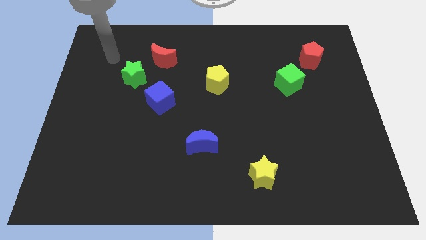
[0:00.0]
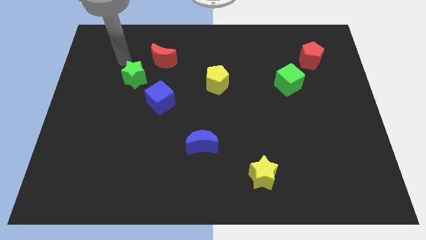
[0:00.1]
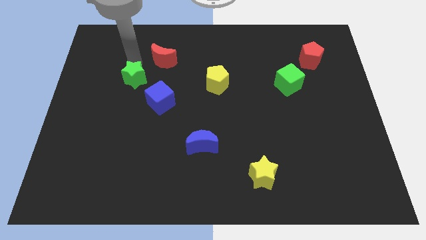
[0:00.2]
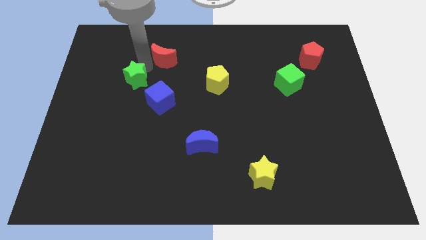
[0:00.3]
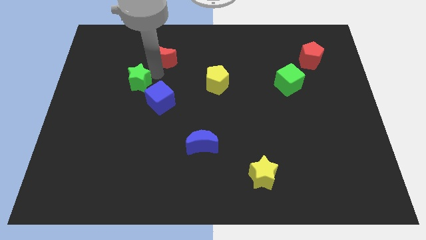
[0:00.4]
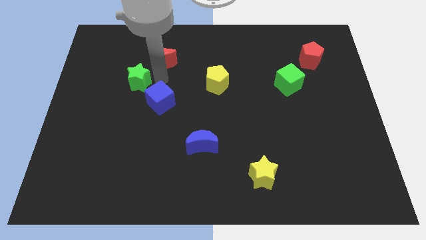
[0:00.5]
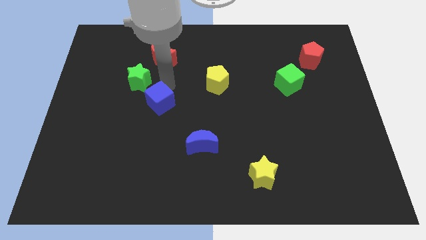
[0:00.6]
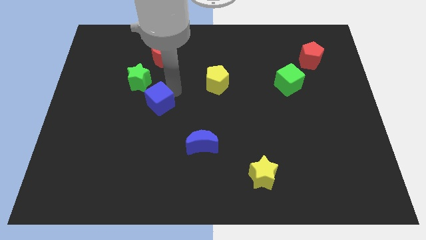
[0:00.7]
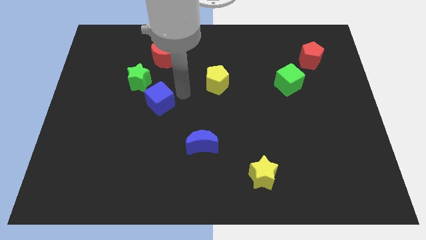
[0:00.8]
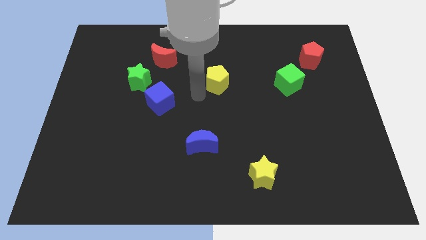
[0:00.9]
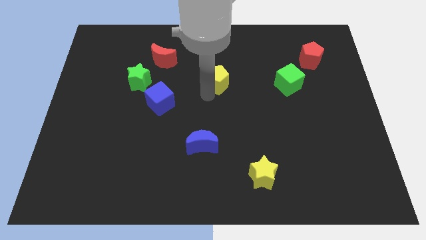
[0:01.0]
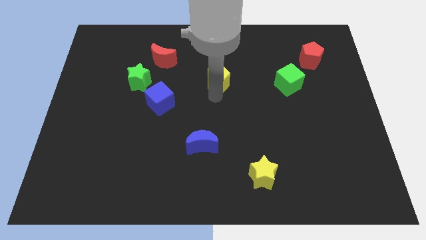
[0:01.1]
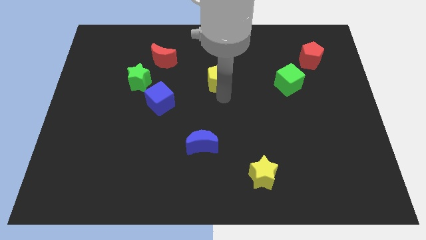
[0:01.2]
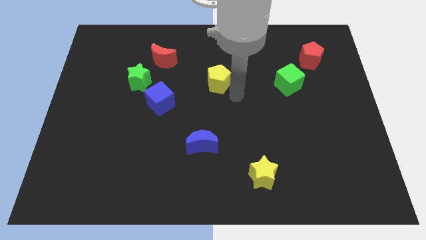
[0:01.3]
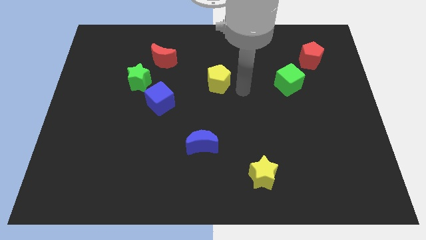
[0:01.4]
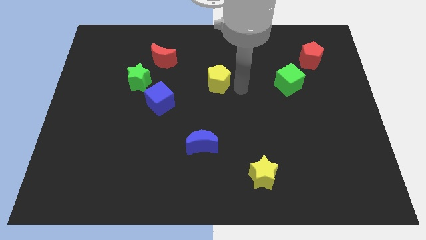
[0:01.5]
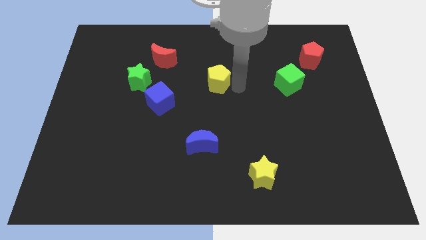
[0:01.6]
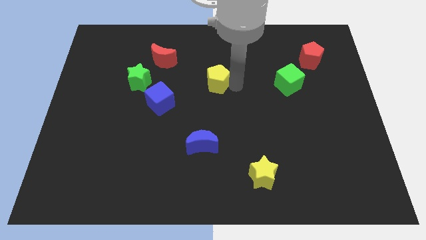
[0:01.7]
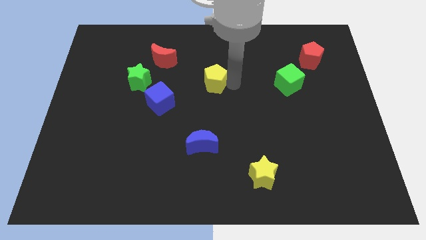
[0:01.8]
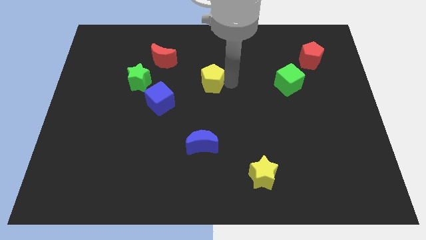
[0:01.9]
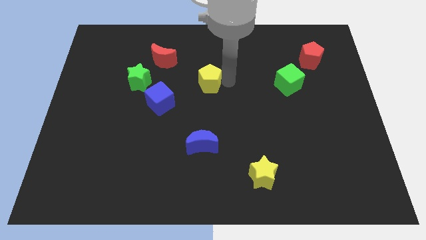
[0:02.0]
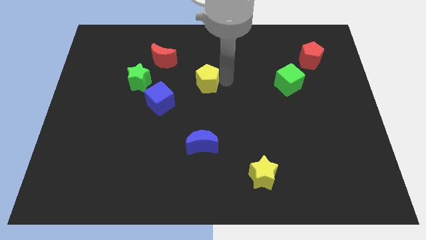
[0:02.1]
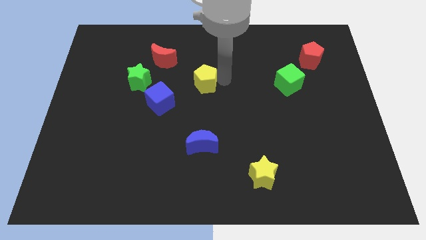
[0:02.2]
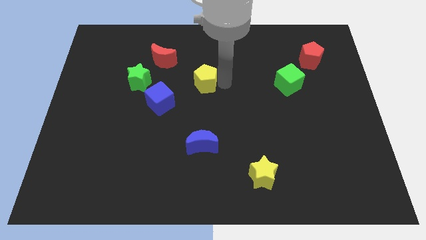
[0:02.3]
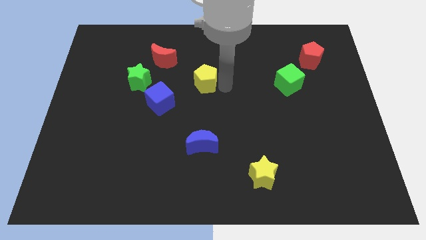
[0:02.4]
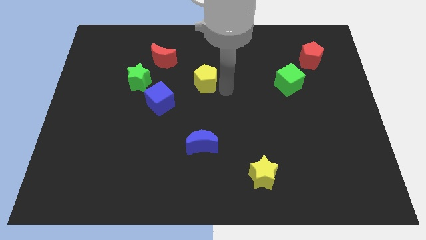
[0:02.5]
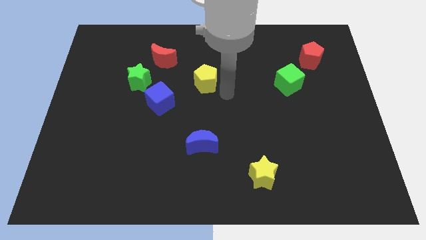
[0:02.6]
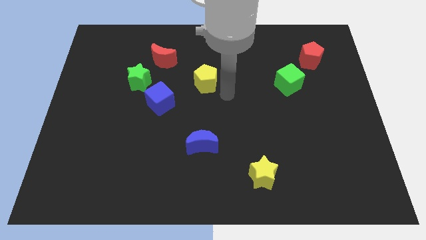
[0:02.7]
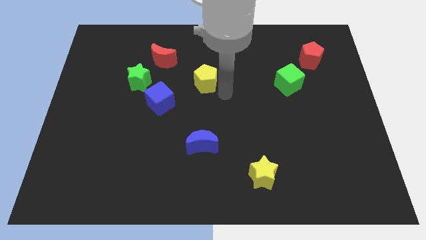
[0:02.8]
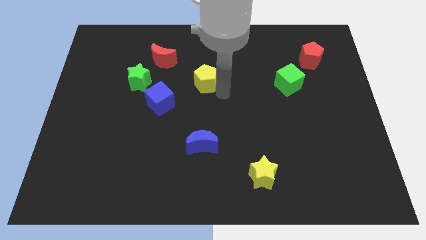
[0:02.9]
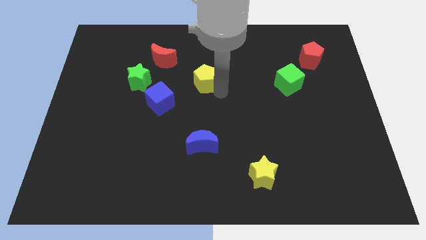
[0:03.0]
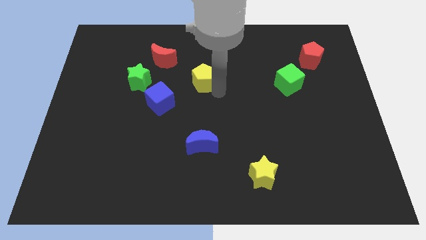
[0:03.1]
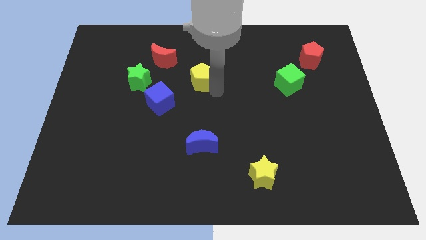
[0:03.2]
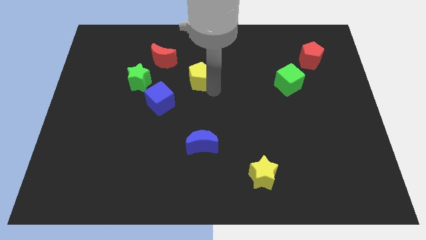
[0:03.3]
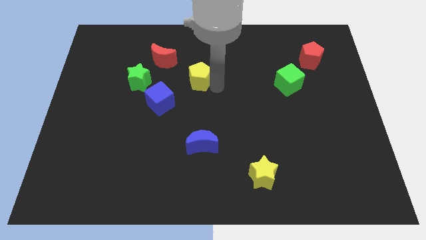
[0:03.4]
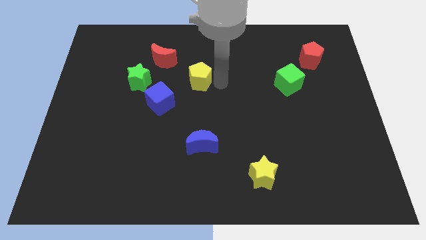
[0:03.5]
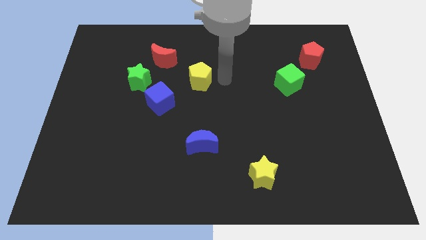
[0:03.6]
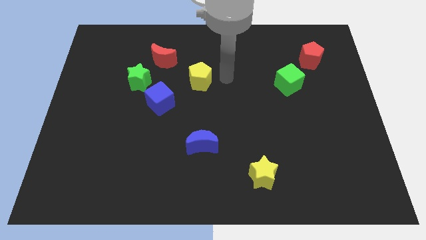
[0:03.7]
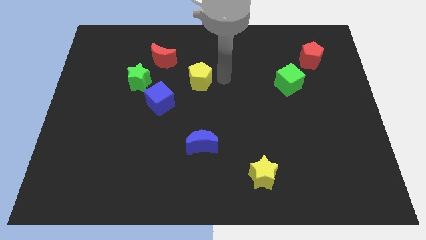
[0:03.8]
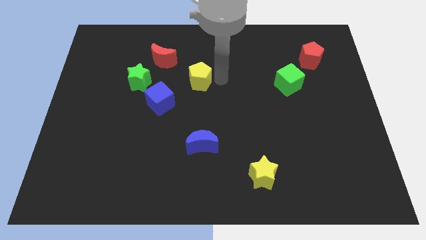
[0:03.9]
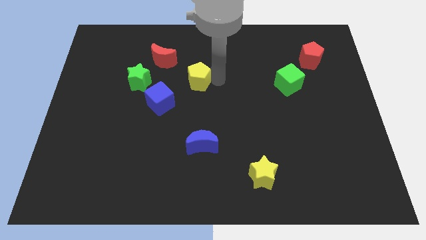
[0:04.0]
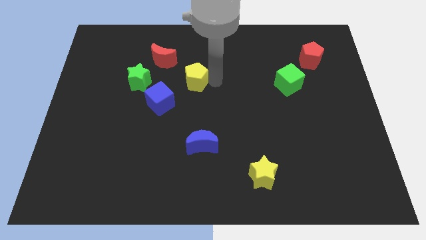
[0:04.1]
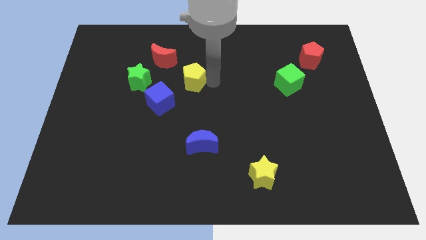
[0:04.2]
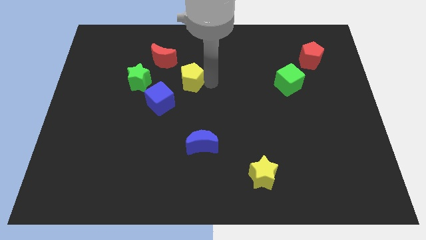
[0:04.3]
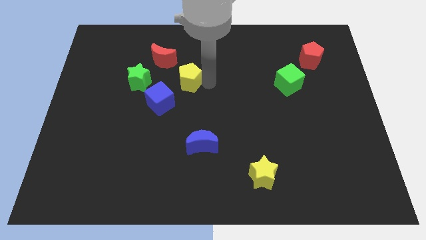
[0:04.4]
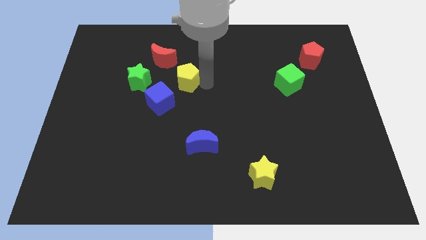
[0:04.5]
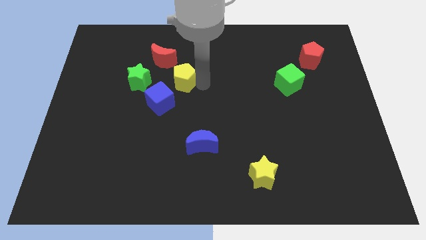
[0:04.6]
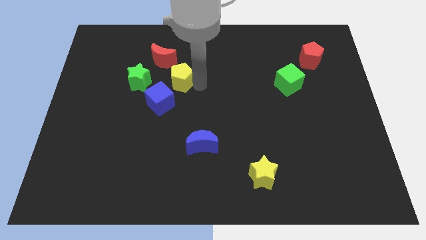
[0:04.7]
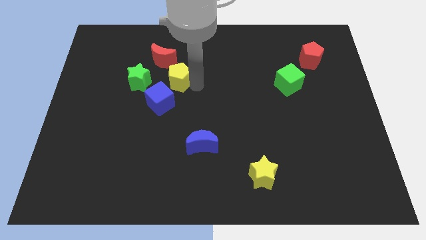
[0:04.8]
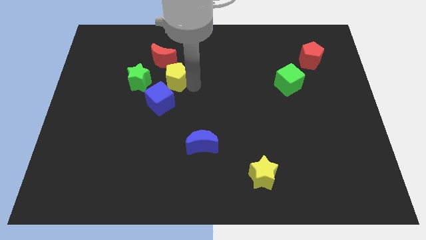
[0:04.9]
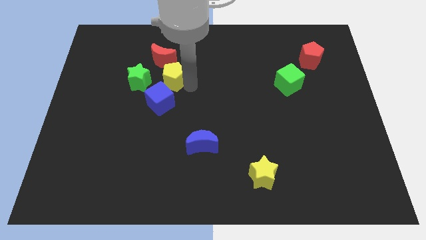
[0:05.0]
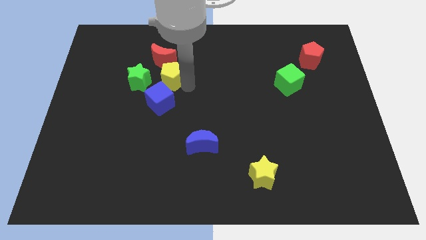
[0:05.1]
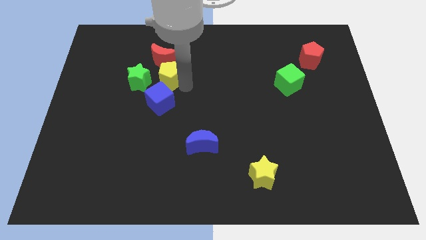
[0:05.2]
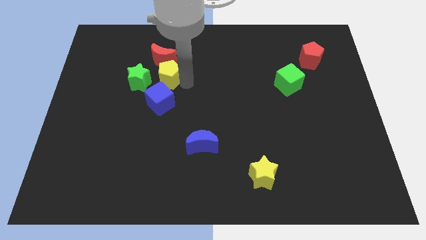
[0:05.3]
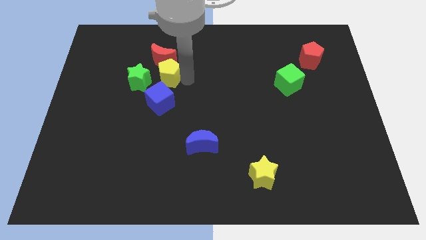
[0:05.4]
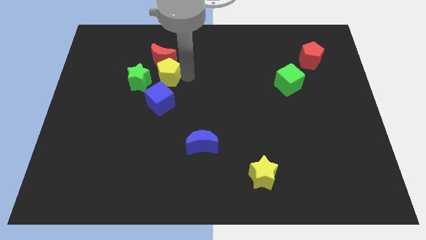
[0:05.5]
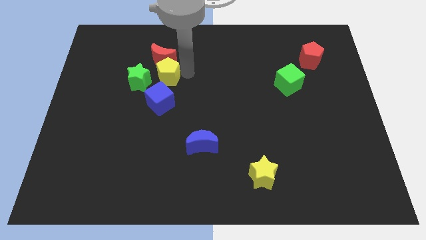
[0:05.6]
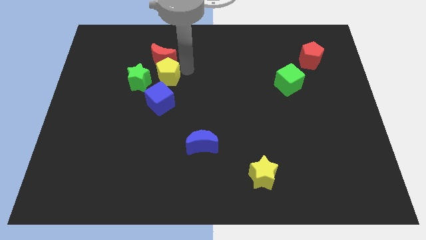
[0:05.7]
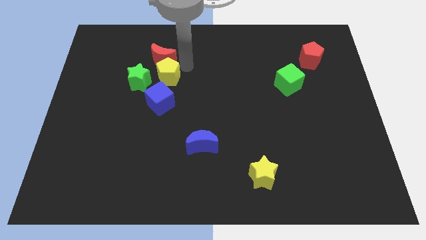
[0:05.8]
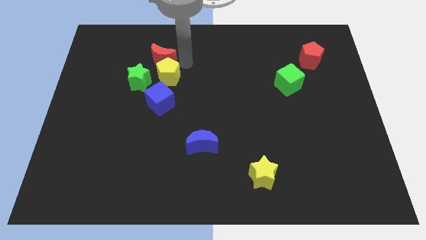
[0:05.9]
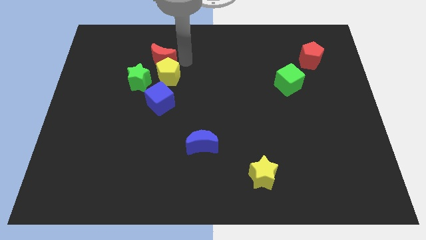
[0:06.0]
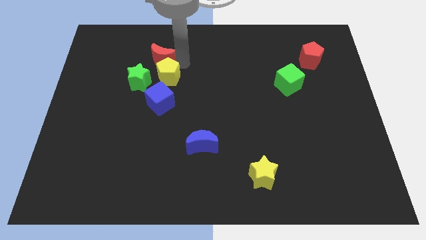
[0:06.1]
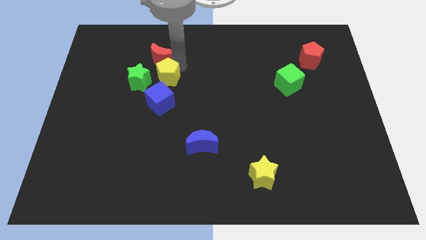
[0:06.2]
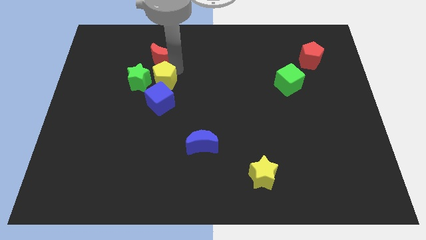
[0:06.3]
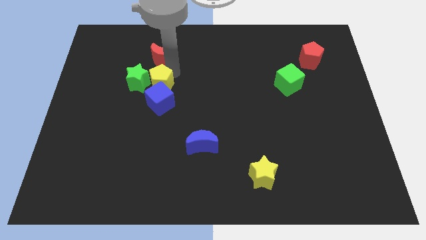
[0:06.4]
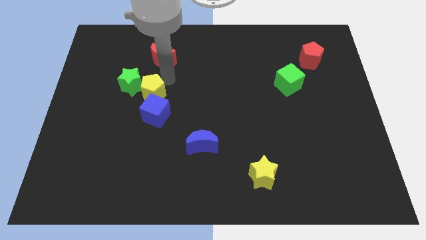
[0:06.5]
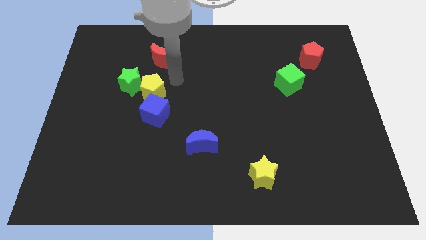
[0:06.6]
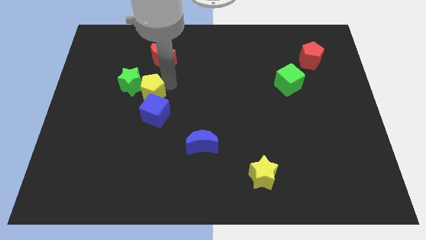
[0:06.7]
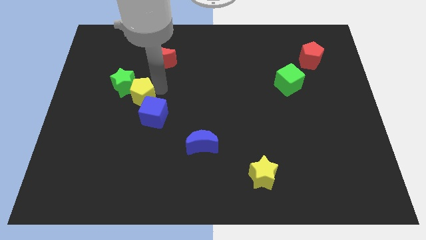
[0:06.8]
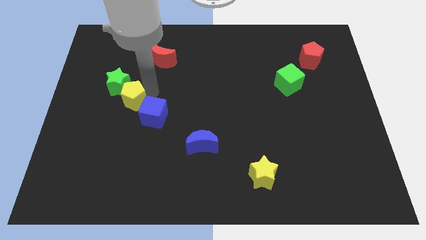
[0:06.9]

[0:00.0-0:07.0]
push the yellow pentagon left of the blue cube

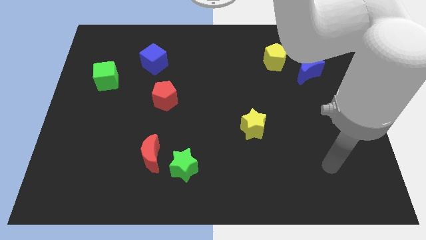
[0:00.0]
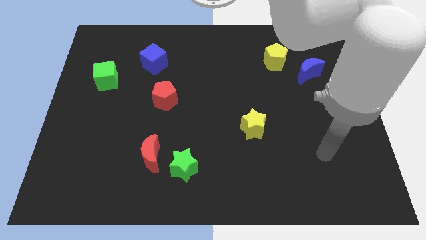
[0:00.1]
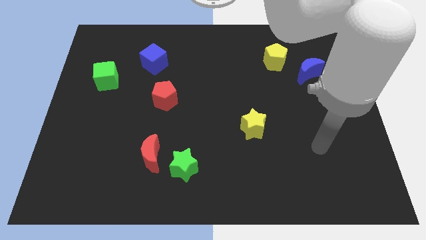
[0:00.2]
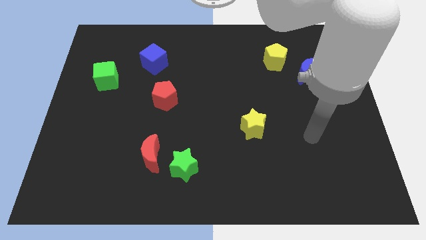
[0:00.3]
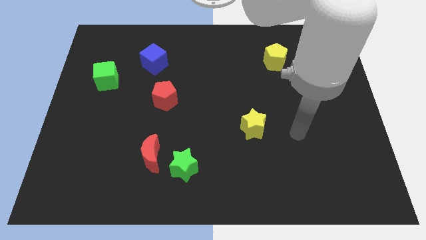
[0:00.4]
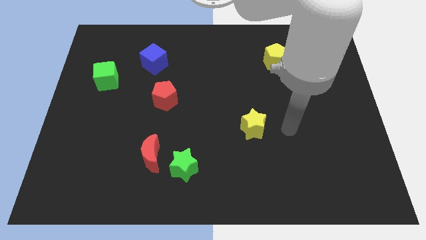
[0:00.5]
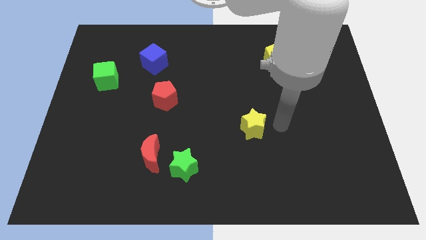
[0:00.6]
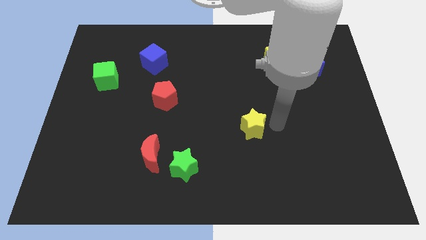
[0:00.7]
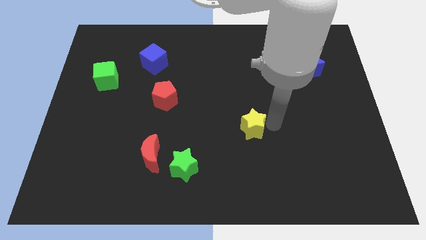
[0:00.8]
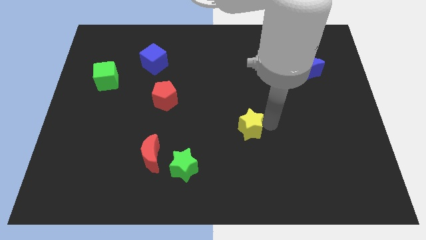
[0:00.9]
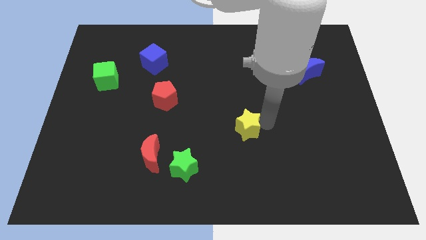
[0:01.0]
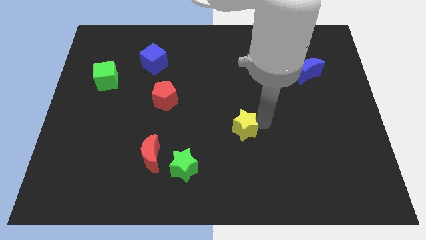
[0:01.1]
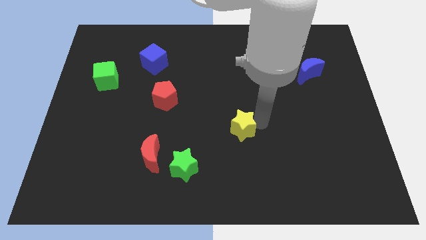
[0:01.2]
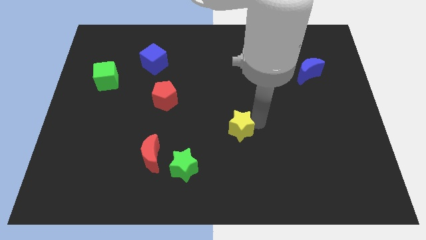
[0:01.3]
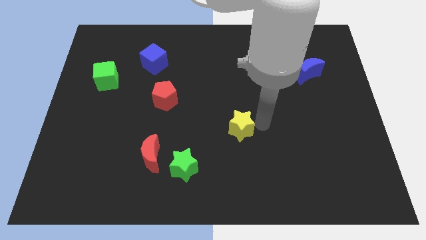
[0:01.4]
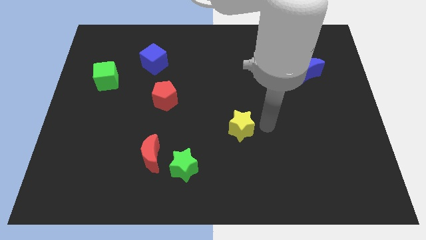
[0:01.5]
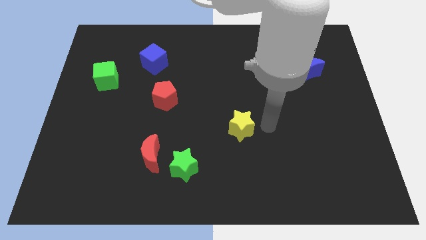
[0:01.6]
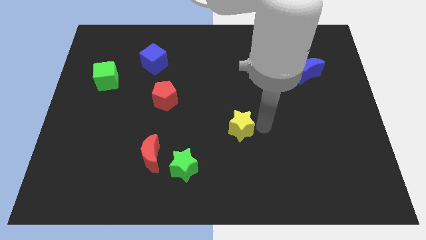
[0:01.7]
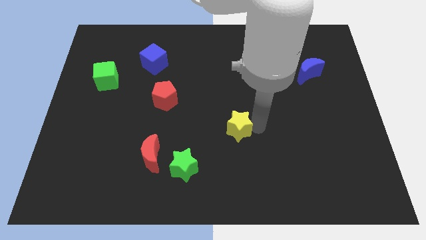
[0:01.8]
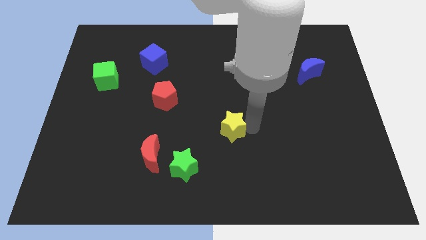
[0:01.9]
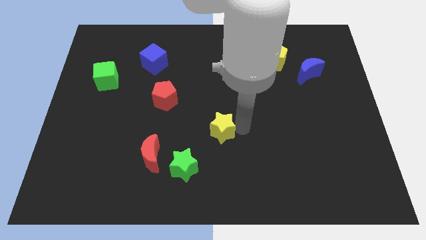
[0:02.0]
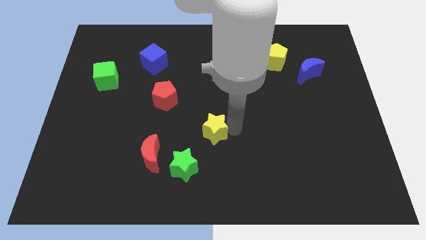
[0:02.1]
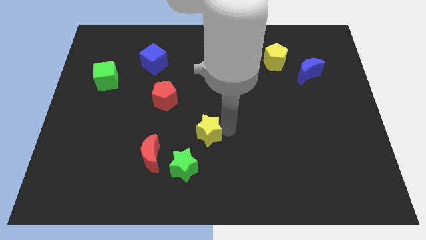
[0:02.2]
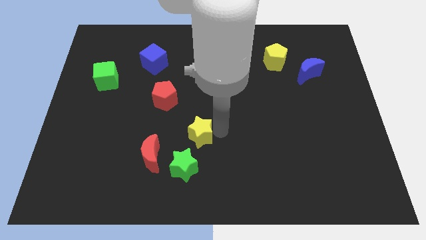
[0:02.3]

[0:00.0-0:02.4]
put the yellow star to the top right of the red moon
